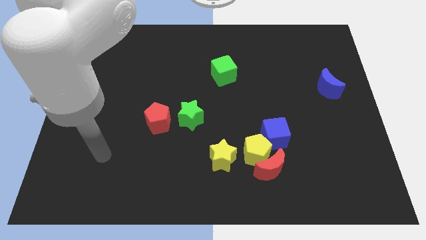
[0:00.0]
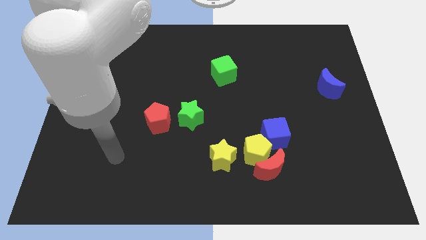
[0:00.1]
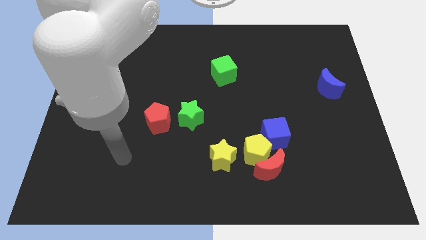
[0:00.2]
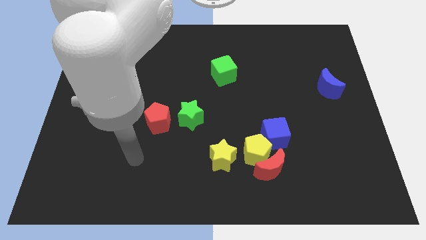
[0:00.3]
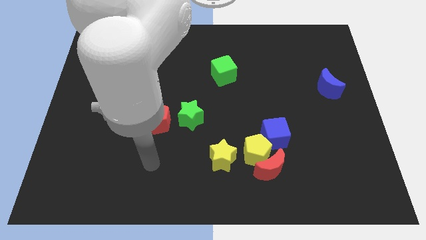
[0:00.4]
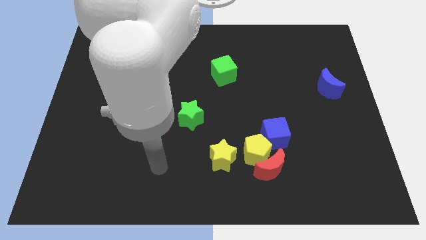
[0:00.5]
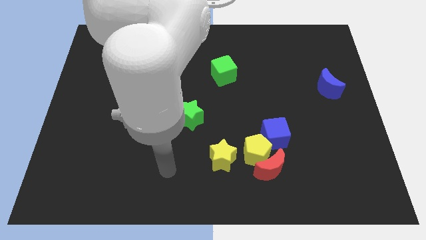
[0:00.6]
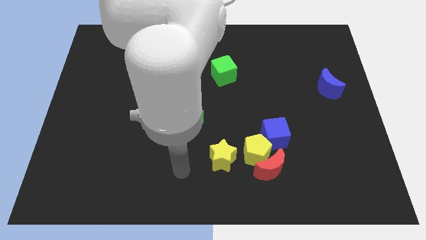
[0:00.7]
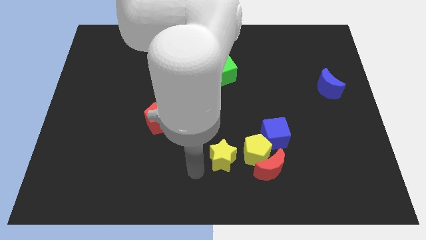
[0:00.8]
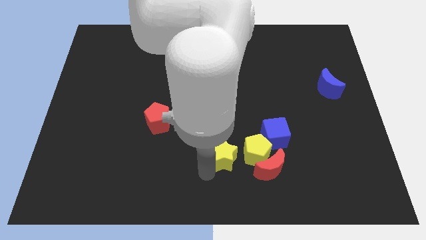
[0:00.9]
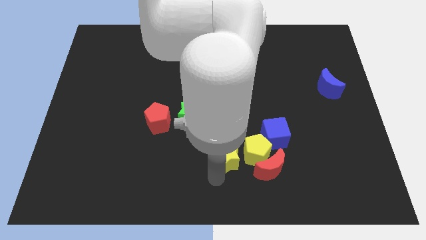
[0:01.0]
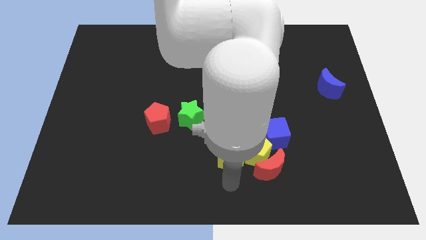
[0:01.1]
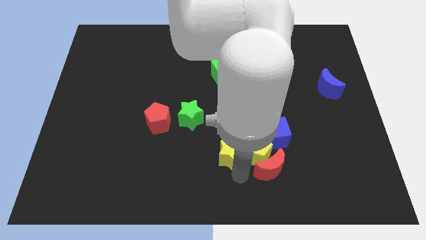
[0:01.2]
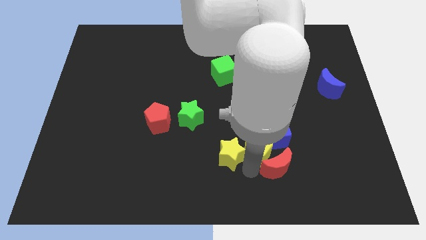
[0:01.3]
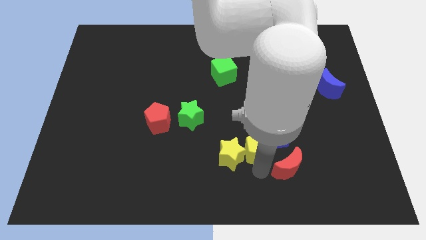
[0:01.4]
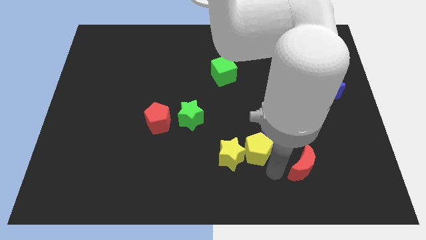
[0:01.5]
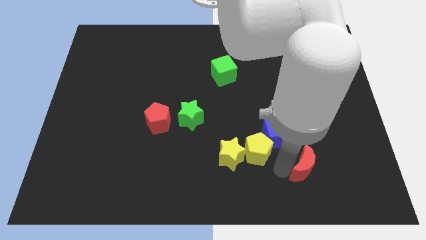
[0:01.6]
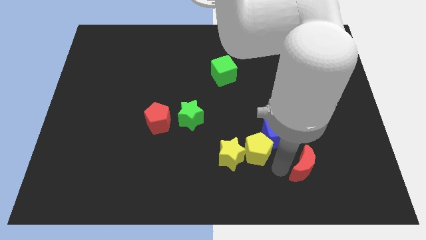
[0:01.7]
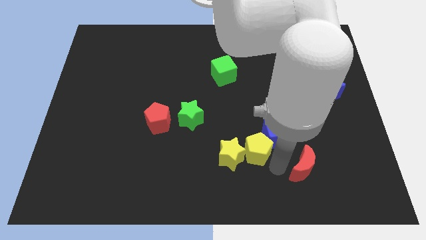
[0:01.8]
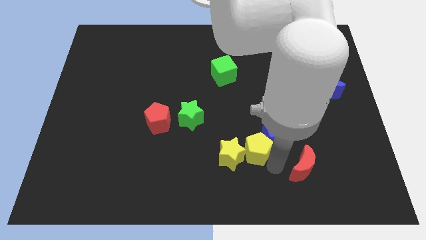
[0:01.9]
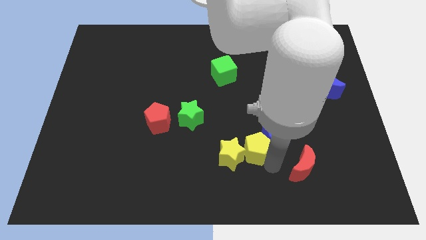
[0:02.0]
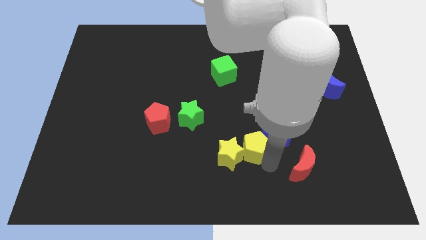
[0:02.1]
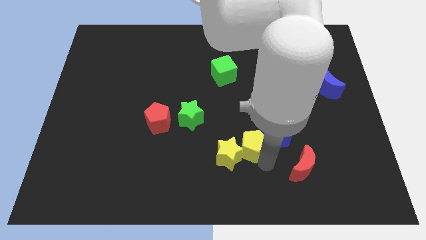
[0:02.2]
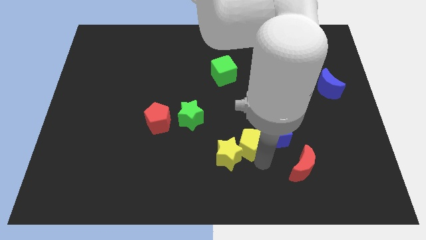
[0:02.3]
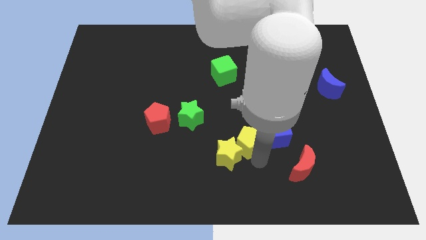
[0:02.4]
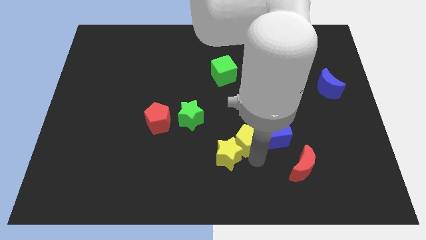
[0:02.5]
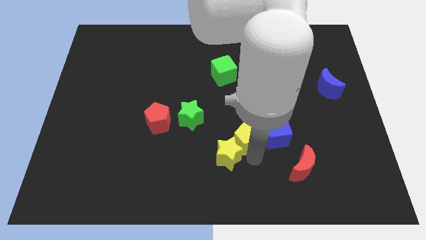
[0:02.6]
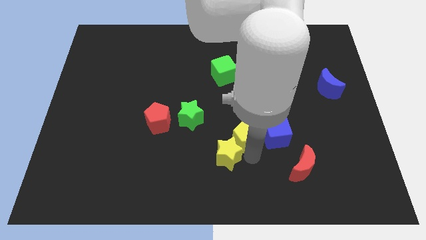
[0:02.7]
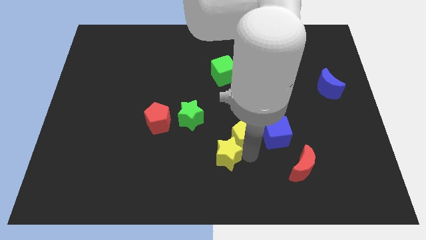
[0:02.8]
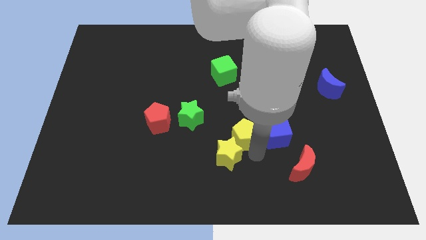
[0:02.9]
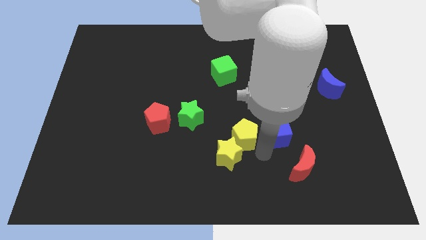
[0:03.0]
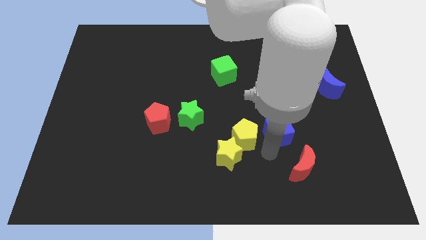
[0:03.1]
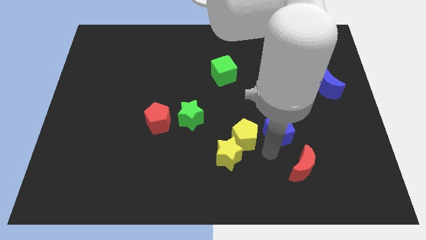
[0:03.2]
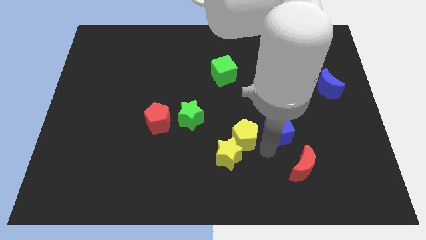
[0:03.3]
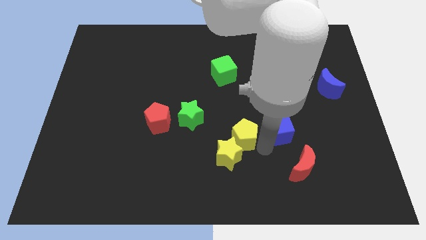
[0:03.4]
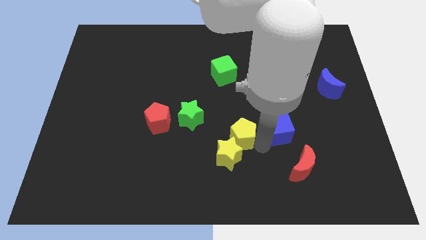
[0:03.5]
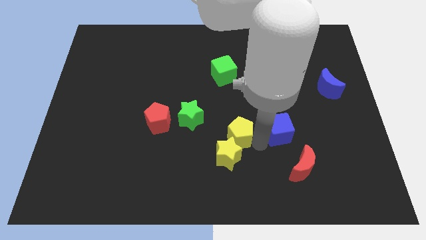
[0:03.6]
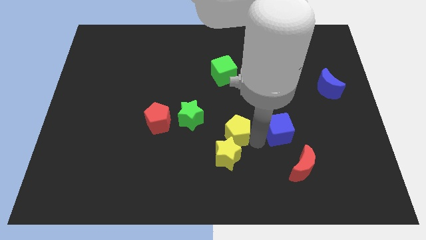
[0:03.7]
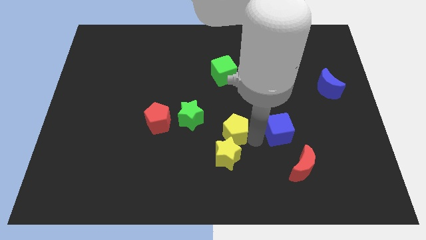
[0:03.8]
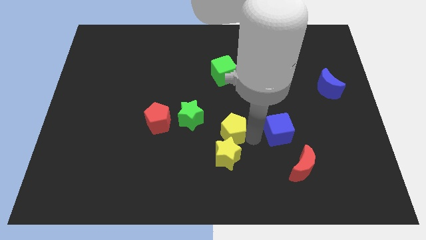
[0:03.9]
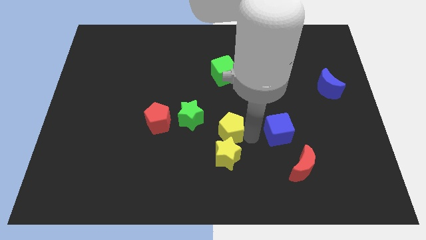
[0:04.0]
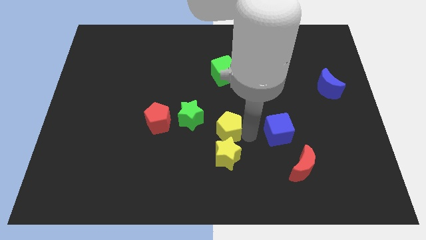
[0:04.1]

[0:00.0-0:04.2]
separate the yellow pentagon from the group

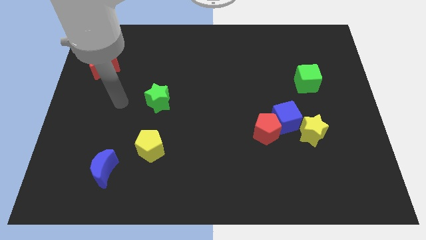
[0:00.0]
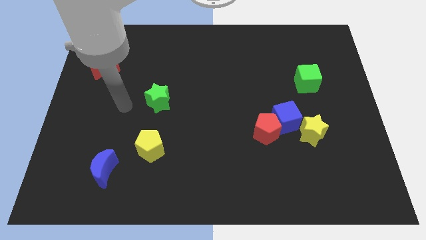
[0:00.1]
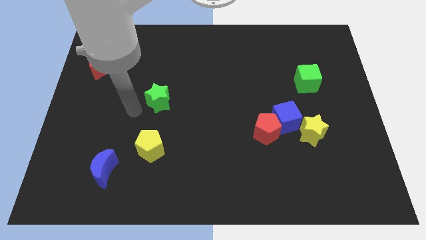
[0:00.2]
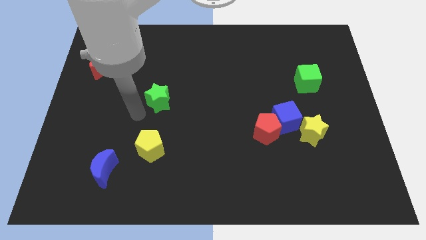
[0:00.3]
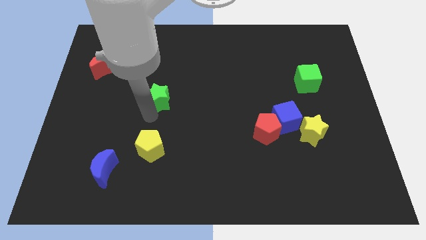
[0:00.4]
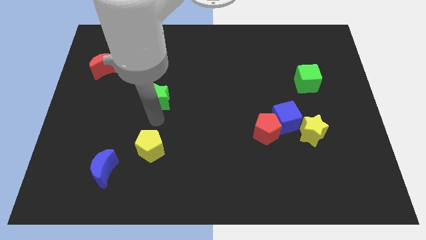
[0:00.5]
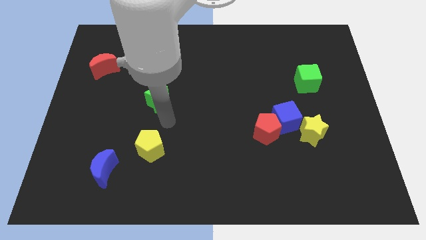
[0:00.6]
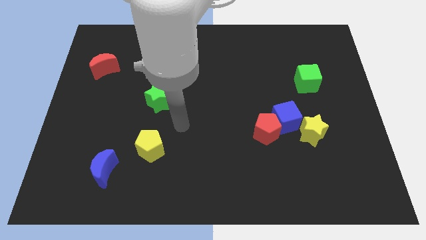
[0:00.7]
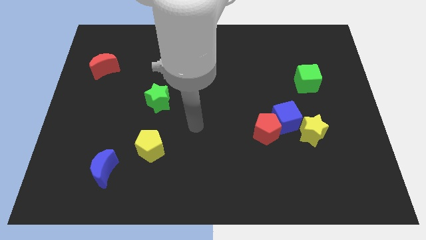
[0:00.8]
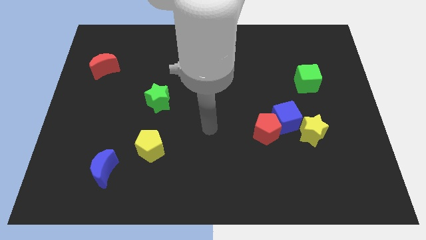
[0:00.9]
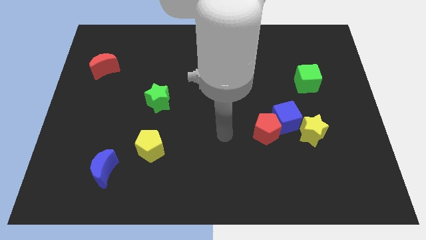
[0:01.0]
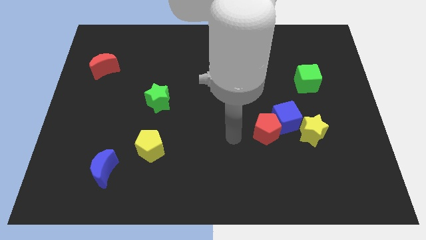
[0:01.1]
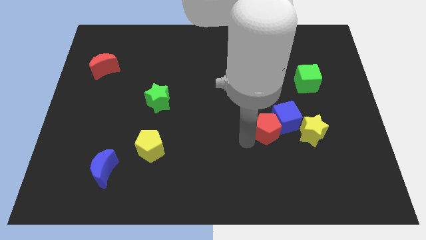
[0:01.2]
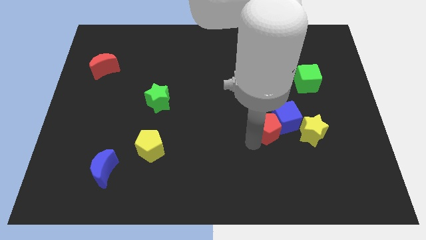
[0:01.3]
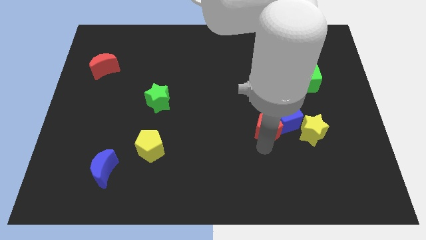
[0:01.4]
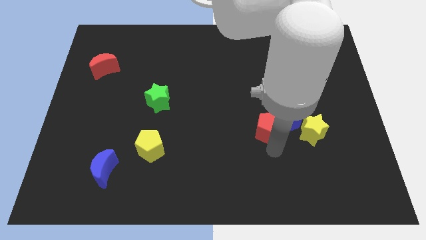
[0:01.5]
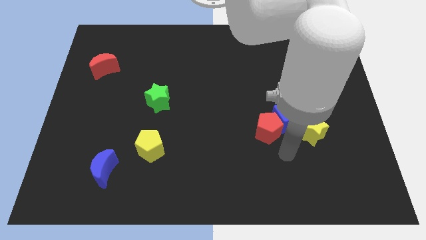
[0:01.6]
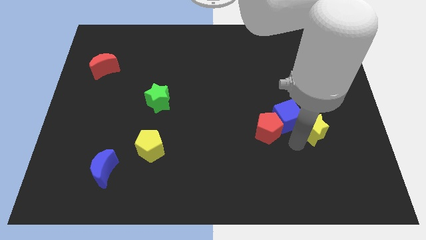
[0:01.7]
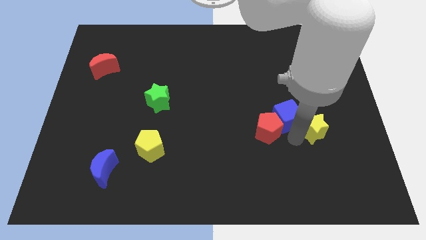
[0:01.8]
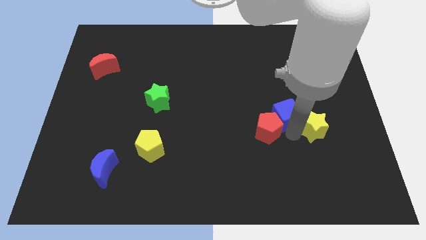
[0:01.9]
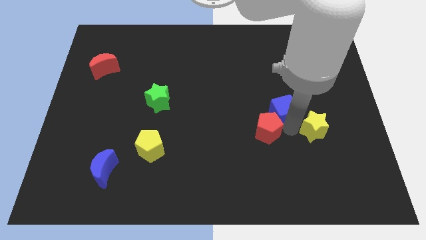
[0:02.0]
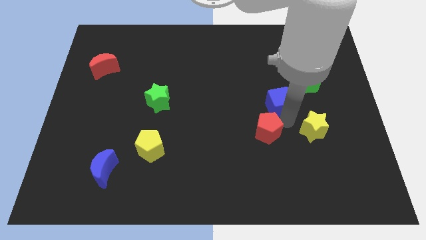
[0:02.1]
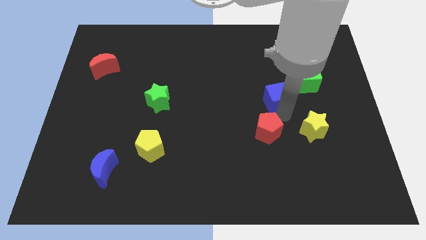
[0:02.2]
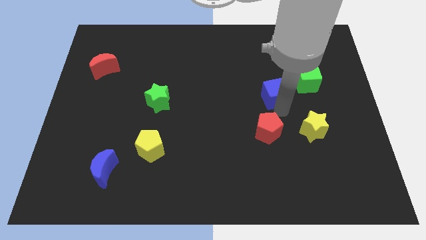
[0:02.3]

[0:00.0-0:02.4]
separate the blue cube from the red pentagon and yellow star

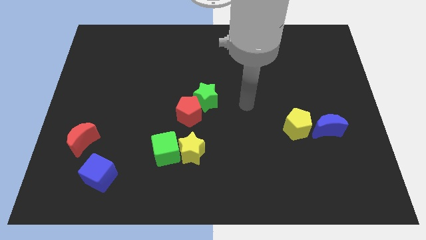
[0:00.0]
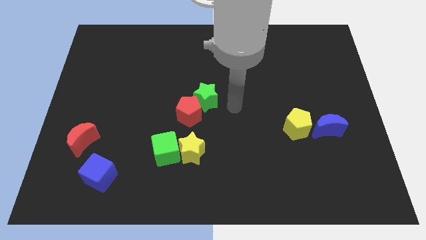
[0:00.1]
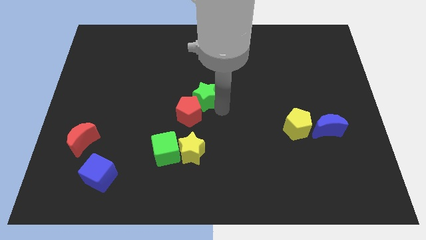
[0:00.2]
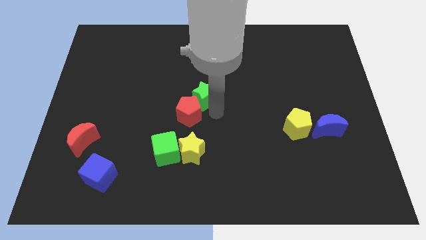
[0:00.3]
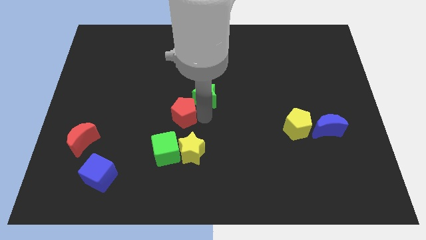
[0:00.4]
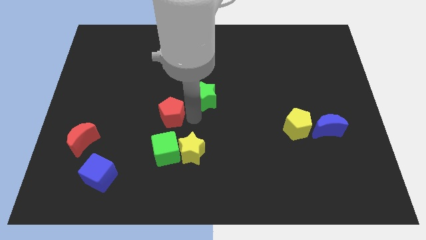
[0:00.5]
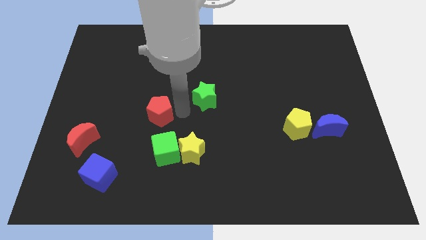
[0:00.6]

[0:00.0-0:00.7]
move the green star away from the red pentagon

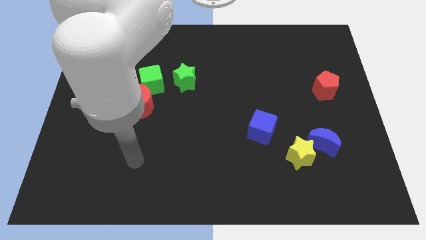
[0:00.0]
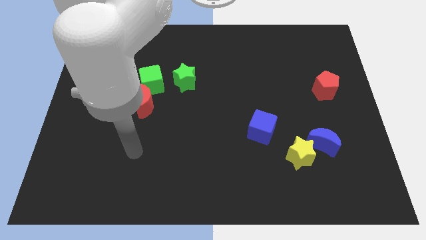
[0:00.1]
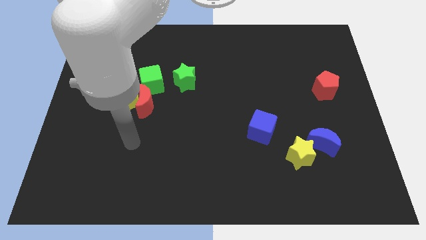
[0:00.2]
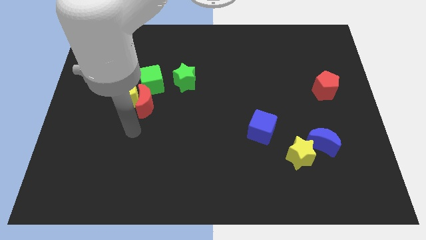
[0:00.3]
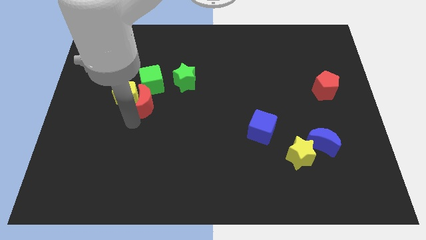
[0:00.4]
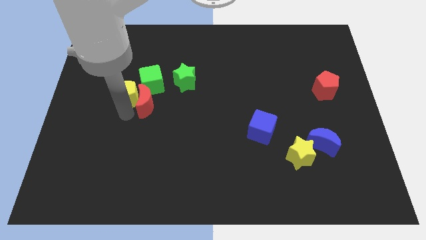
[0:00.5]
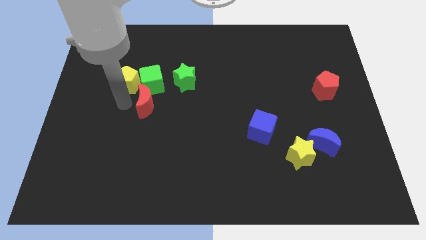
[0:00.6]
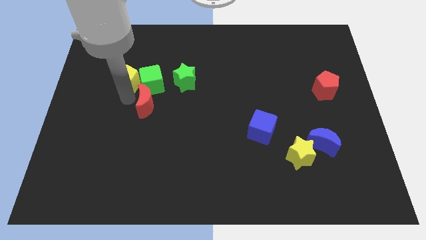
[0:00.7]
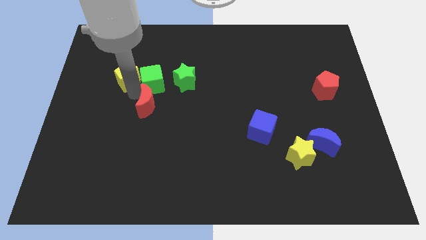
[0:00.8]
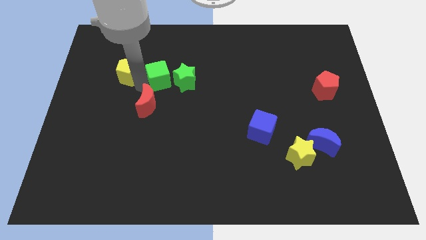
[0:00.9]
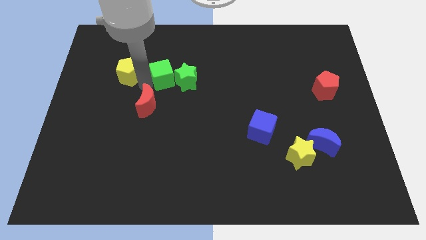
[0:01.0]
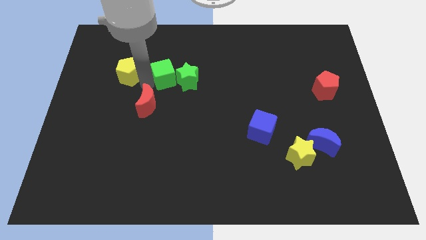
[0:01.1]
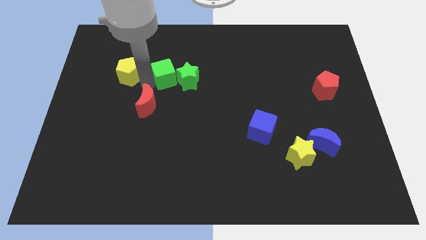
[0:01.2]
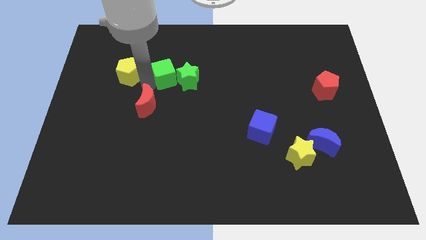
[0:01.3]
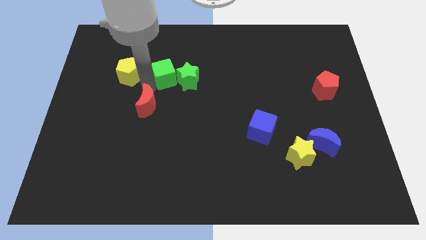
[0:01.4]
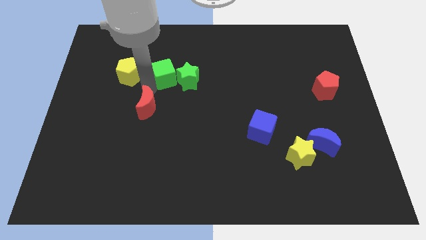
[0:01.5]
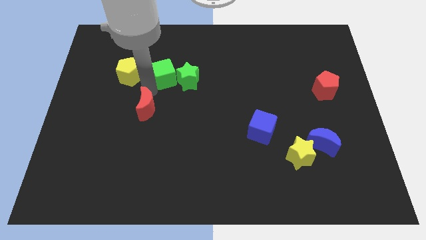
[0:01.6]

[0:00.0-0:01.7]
move the red moon away from the yellow pentagon and green cube

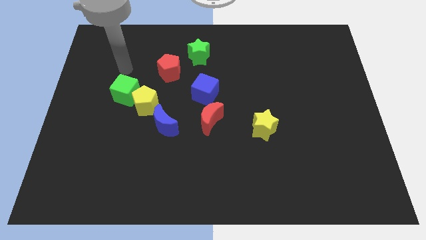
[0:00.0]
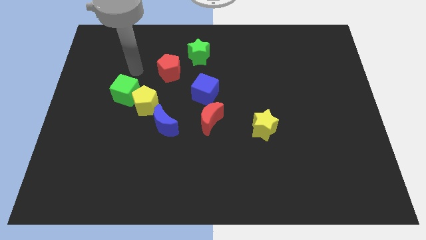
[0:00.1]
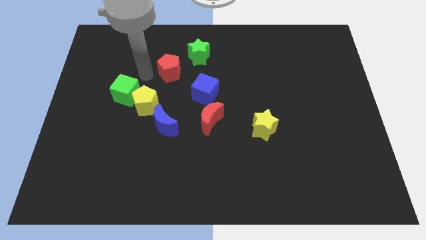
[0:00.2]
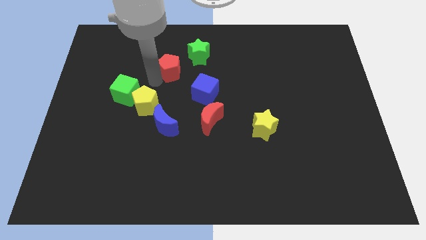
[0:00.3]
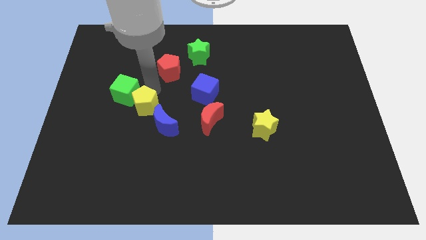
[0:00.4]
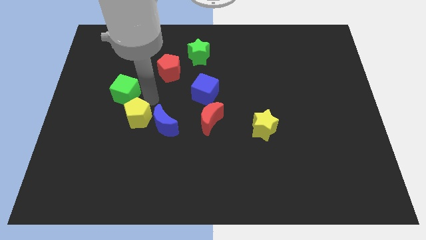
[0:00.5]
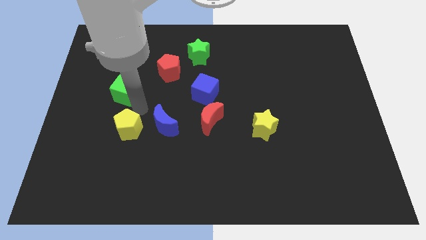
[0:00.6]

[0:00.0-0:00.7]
move the green cube away from the yellow pentagon
